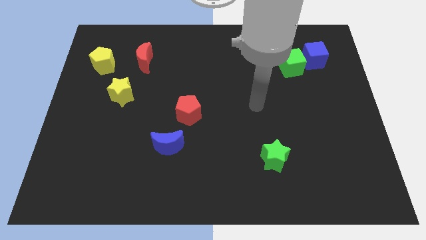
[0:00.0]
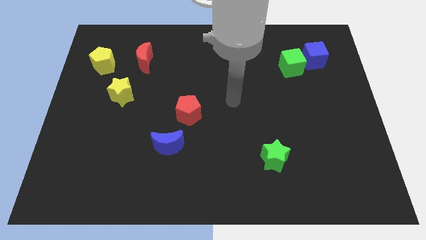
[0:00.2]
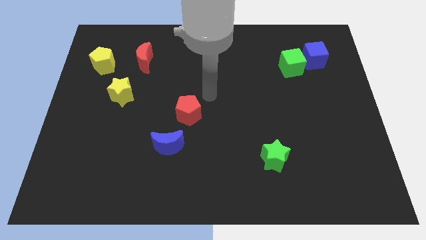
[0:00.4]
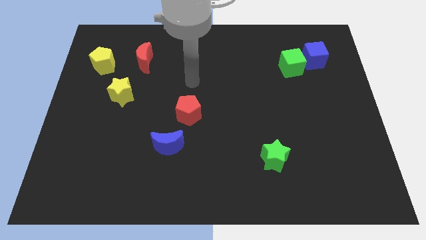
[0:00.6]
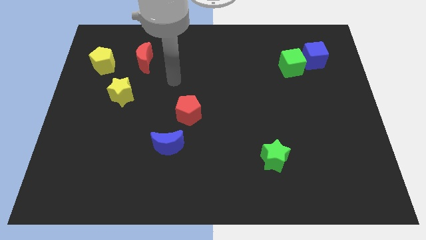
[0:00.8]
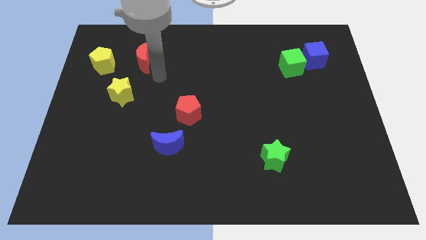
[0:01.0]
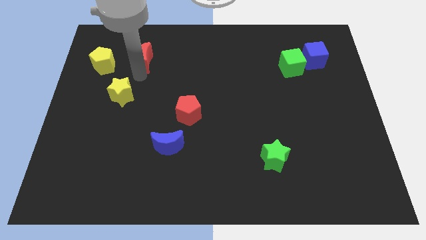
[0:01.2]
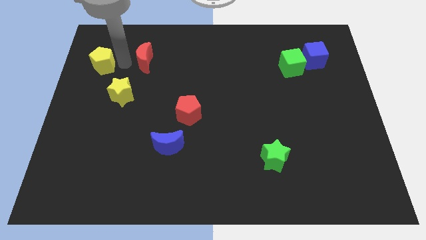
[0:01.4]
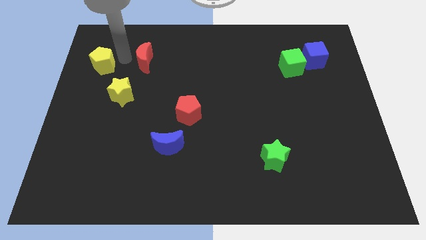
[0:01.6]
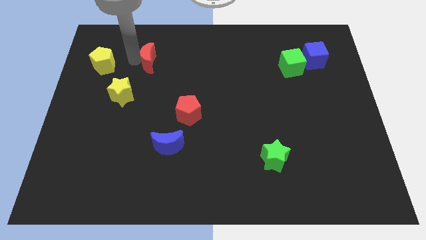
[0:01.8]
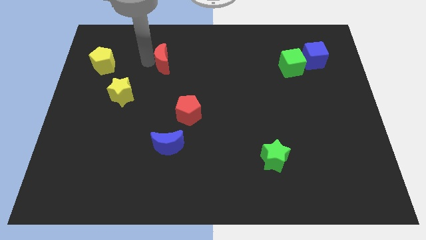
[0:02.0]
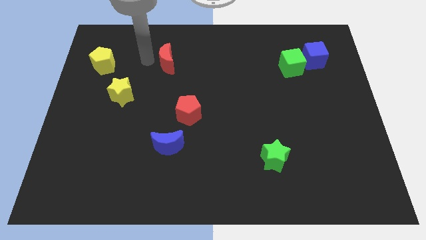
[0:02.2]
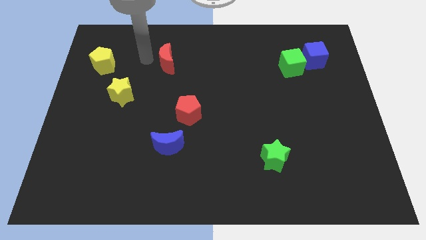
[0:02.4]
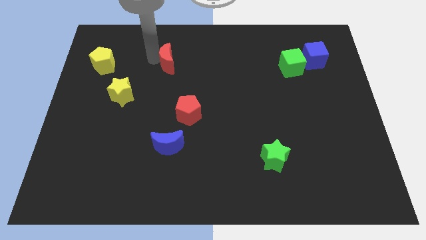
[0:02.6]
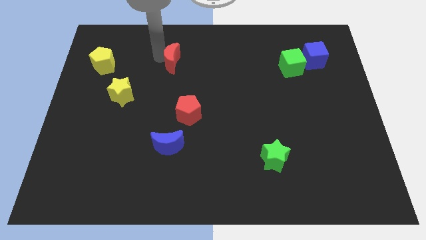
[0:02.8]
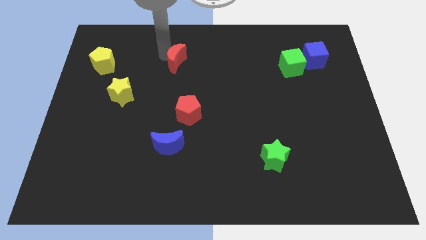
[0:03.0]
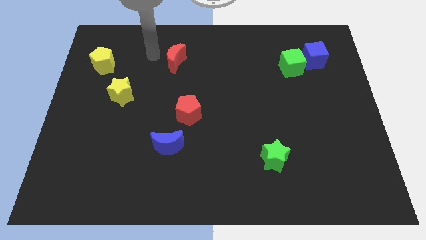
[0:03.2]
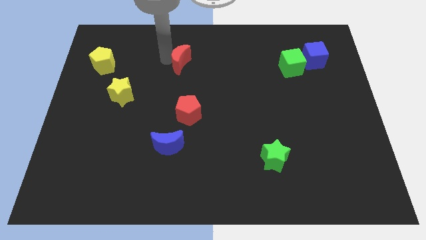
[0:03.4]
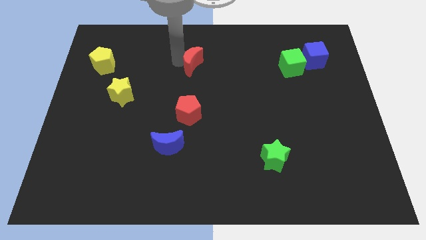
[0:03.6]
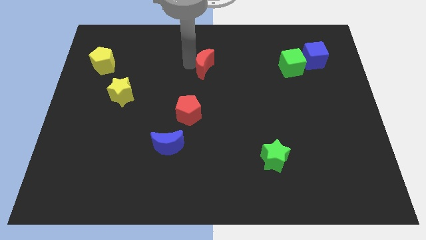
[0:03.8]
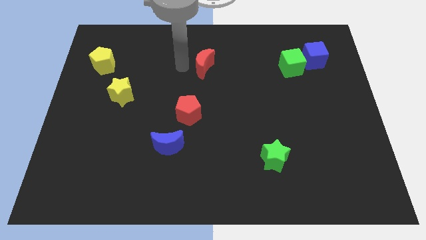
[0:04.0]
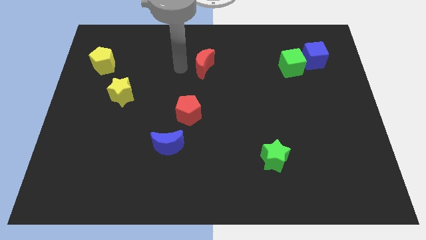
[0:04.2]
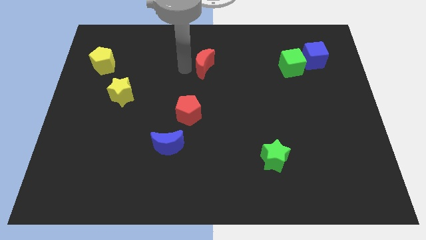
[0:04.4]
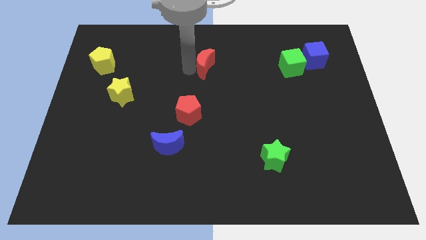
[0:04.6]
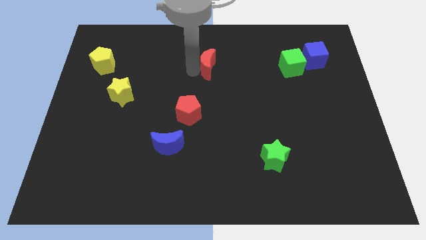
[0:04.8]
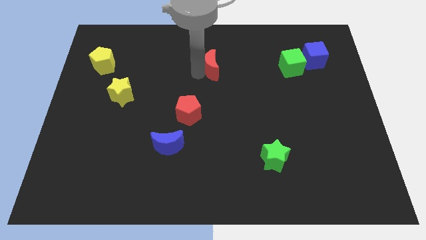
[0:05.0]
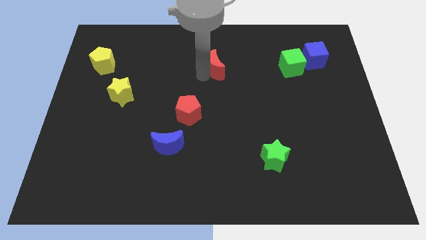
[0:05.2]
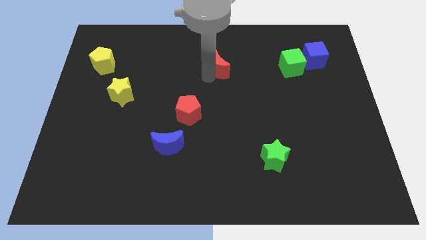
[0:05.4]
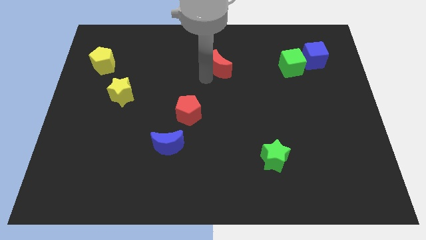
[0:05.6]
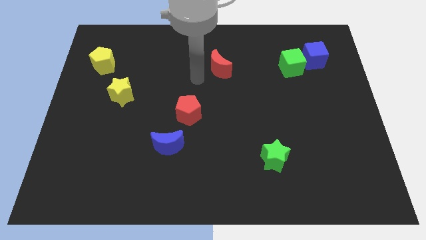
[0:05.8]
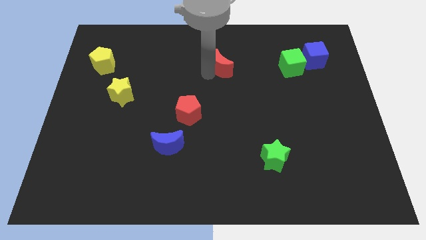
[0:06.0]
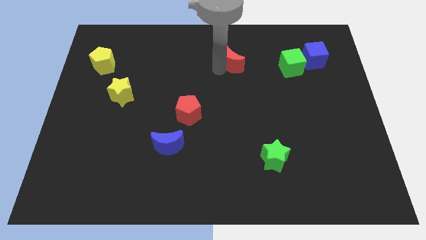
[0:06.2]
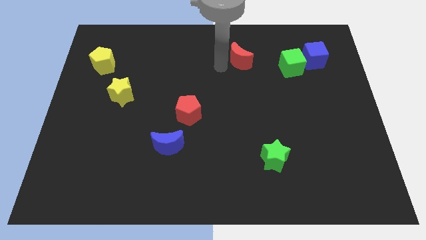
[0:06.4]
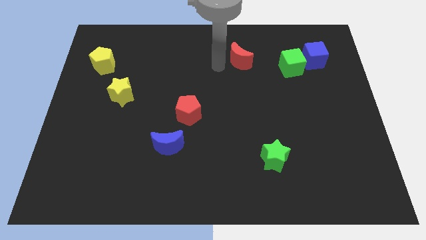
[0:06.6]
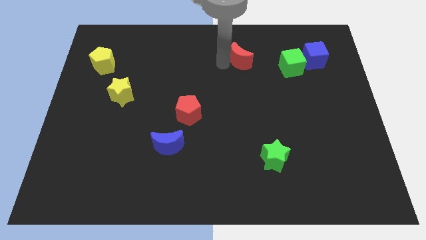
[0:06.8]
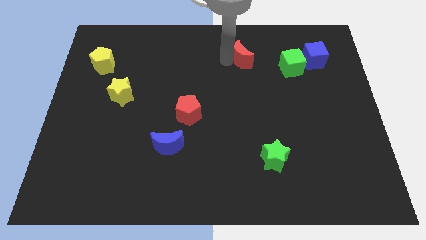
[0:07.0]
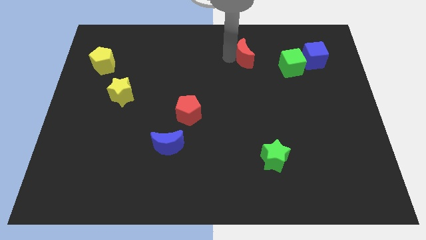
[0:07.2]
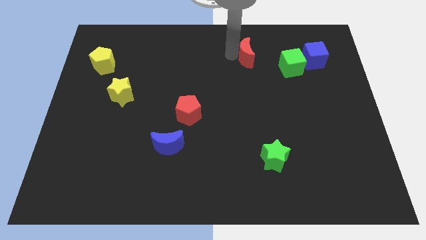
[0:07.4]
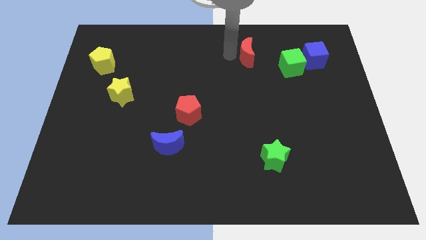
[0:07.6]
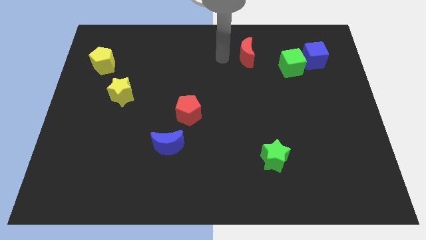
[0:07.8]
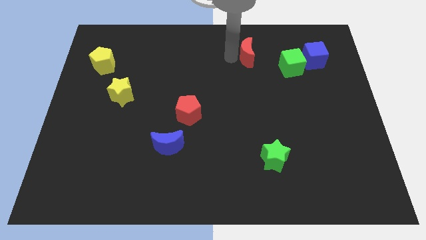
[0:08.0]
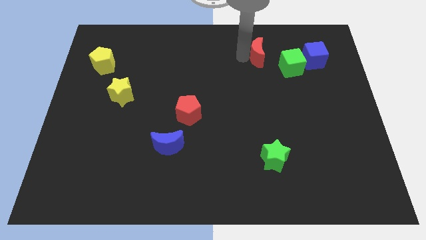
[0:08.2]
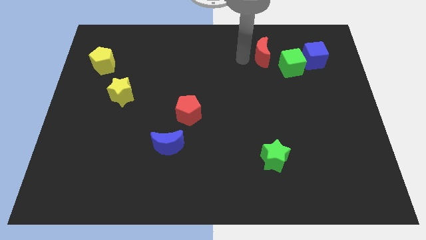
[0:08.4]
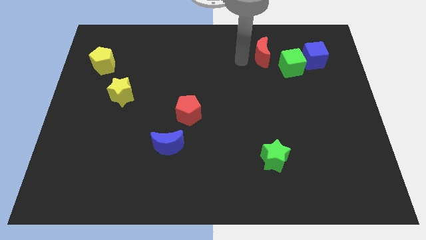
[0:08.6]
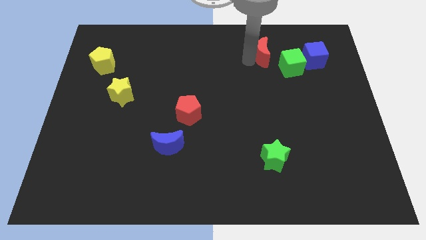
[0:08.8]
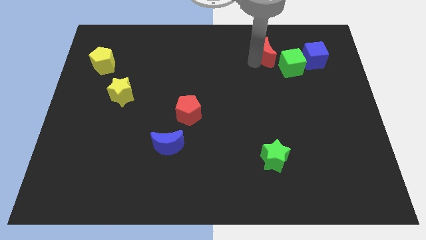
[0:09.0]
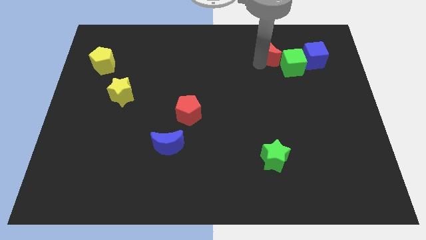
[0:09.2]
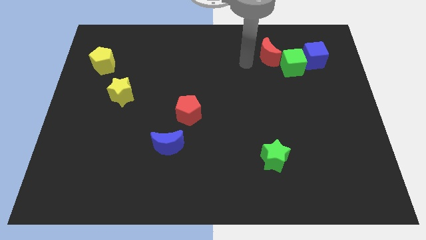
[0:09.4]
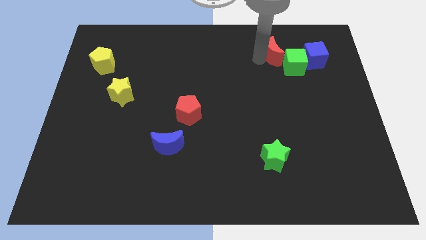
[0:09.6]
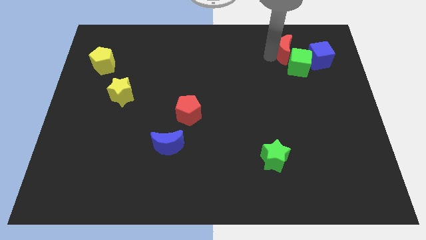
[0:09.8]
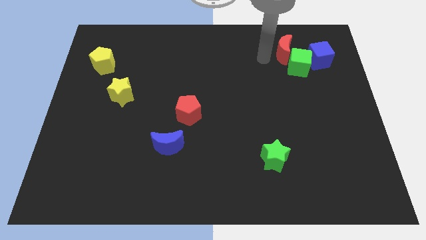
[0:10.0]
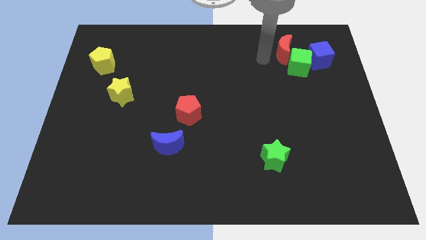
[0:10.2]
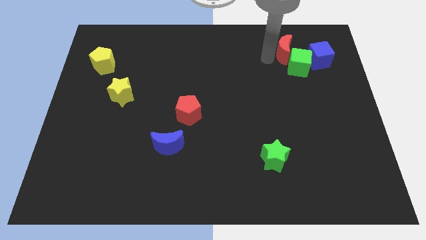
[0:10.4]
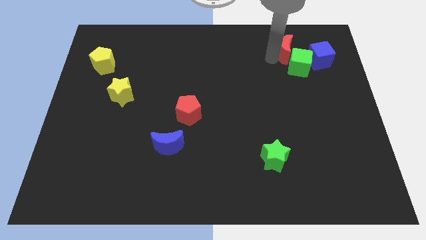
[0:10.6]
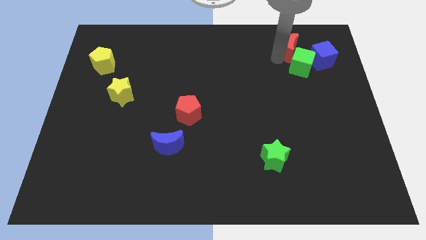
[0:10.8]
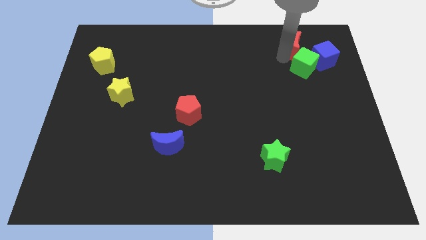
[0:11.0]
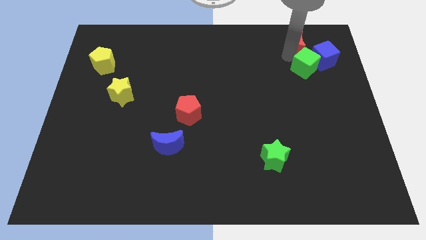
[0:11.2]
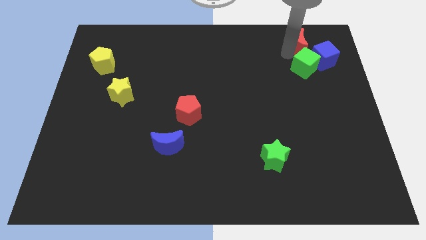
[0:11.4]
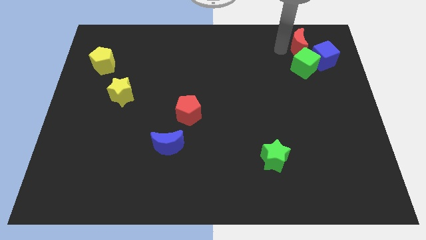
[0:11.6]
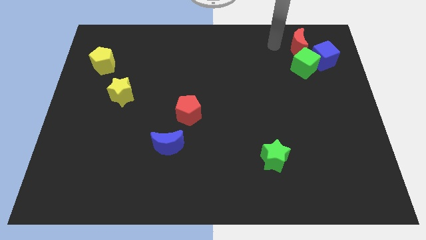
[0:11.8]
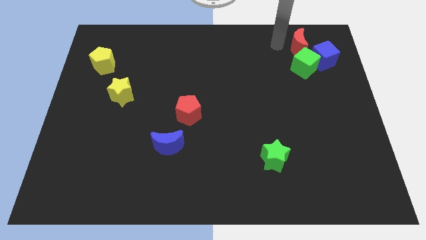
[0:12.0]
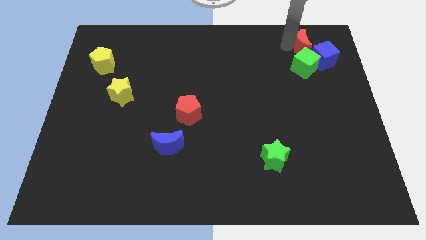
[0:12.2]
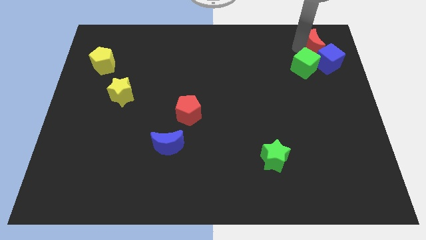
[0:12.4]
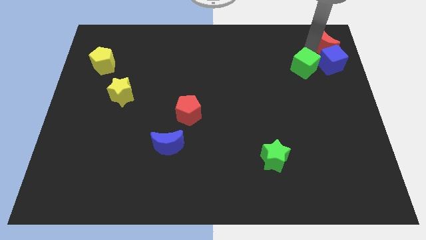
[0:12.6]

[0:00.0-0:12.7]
put the red moon to the top right of the board
